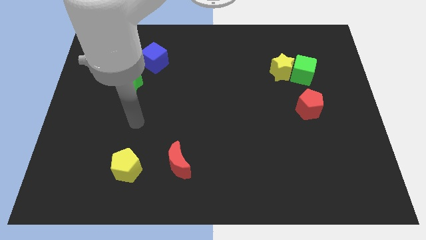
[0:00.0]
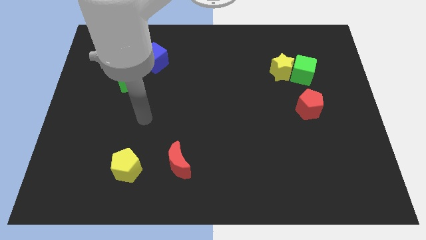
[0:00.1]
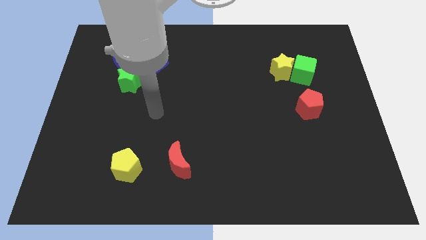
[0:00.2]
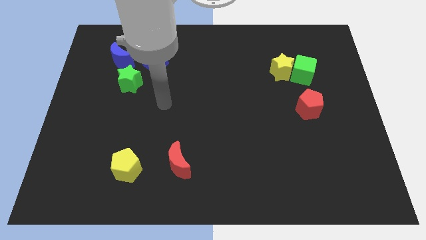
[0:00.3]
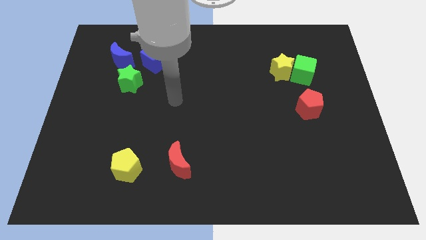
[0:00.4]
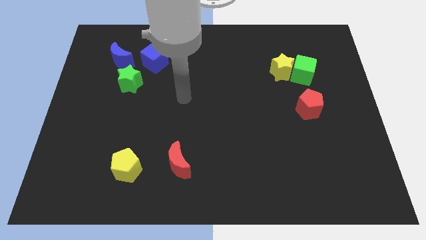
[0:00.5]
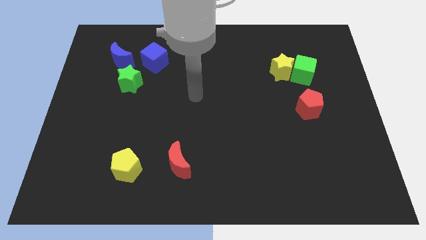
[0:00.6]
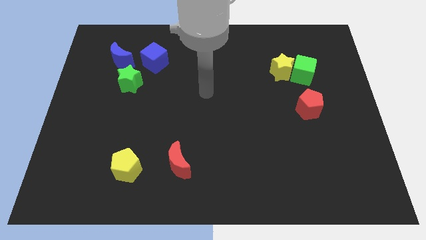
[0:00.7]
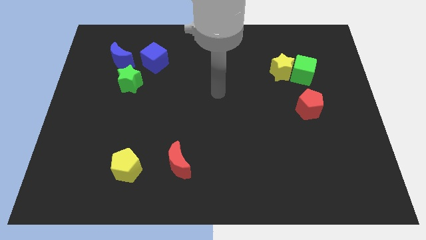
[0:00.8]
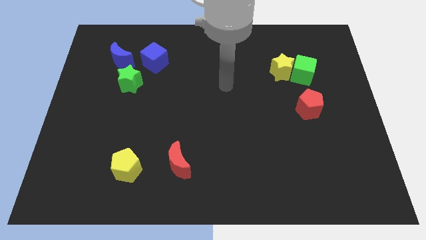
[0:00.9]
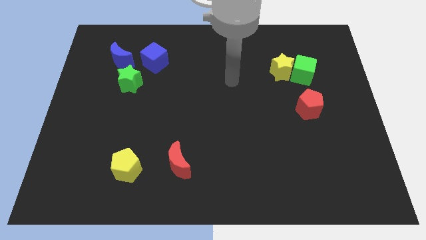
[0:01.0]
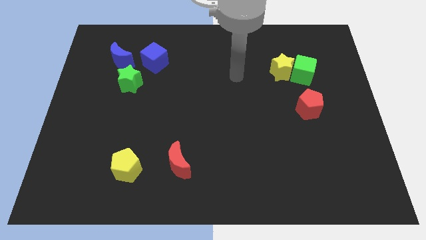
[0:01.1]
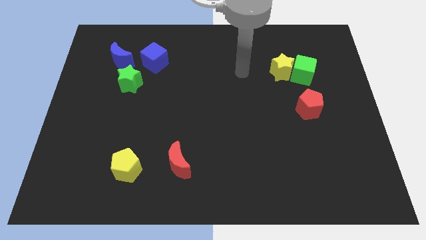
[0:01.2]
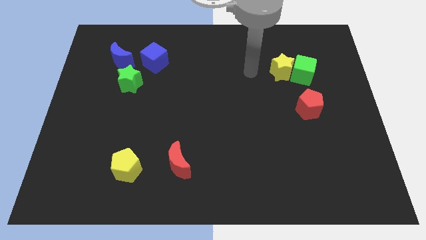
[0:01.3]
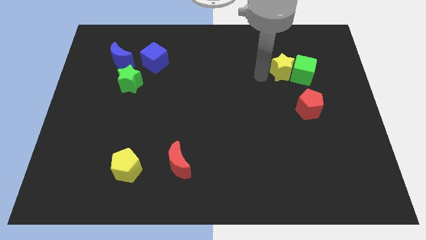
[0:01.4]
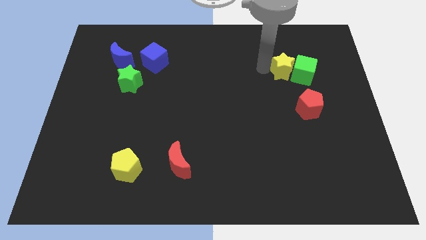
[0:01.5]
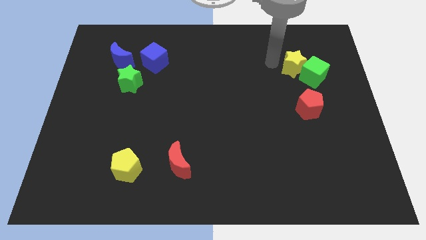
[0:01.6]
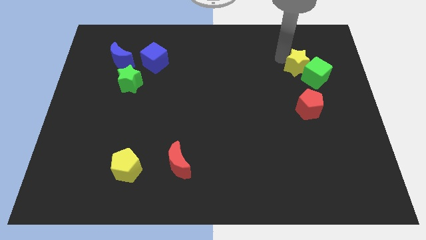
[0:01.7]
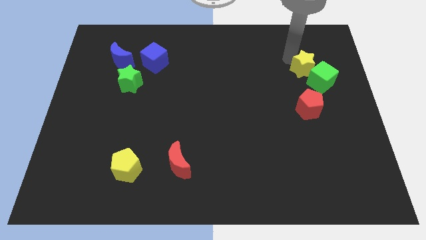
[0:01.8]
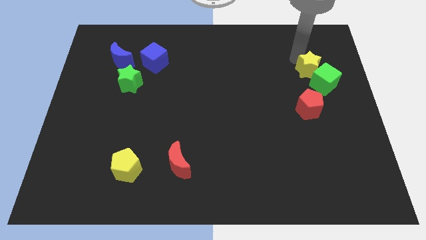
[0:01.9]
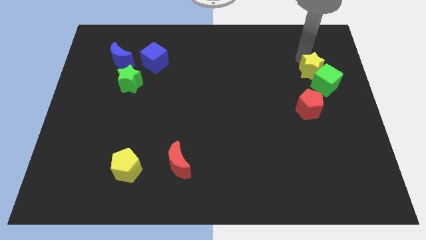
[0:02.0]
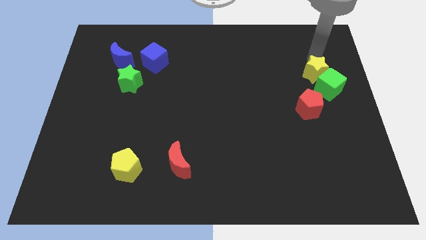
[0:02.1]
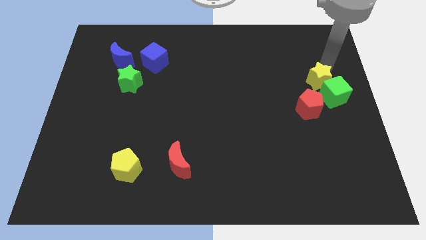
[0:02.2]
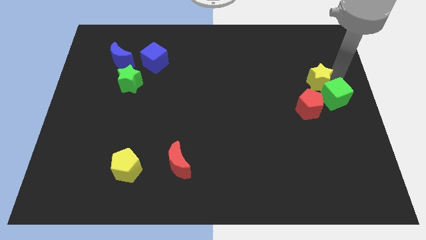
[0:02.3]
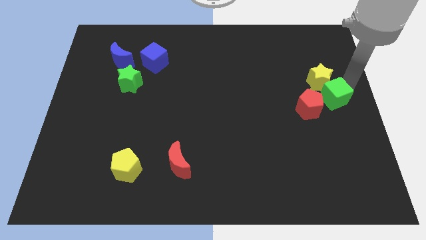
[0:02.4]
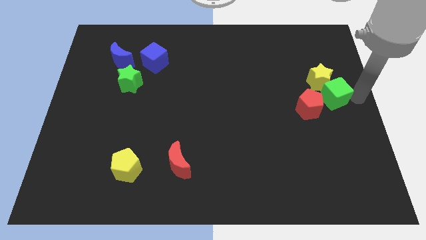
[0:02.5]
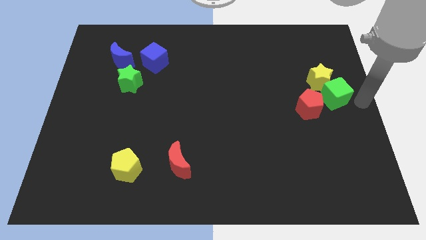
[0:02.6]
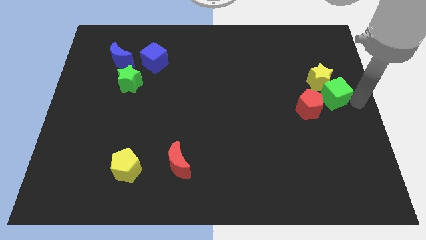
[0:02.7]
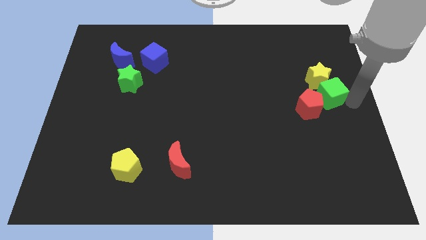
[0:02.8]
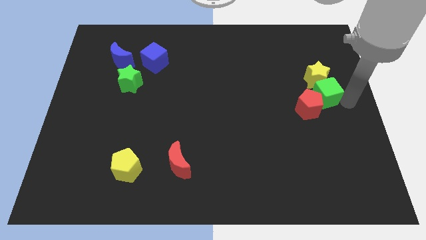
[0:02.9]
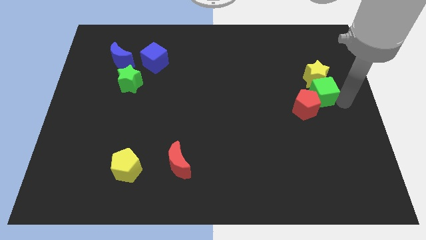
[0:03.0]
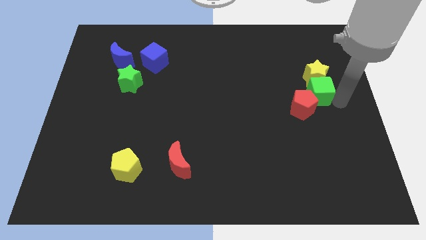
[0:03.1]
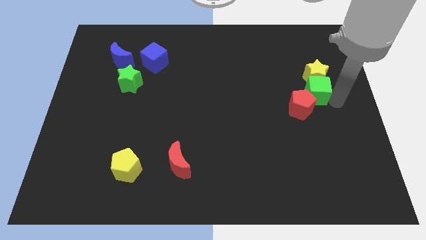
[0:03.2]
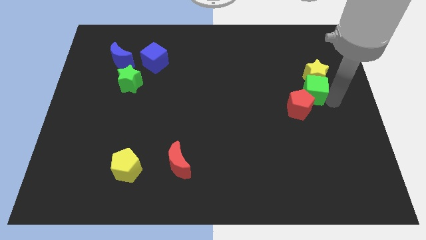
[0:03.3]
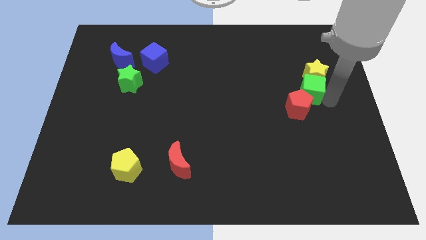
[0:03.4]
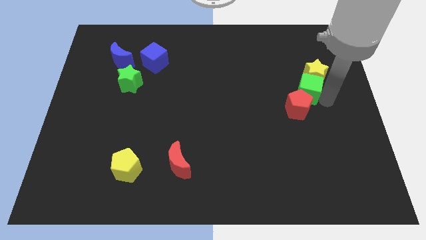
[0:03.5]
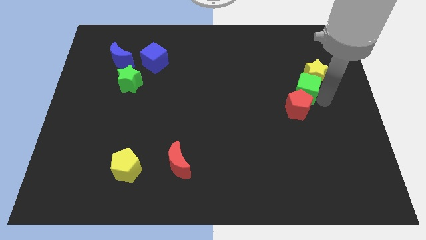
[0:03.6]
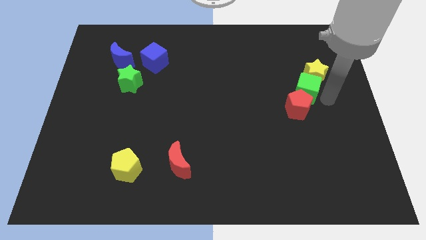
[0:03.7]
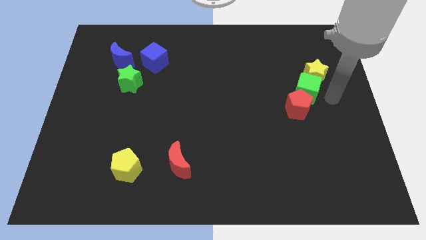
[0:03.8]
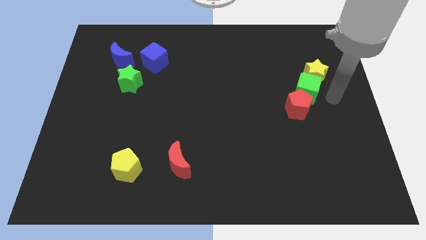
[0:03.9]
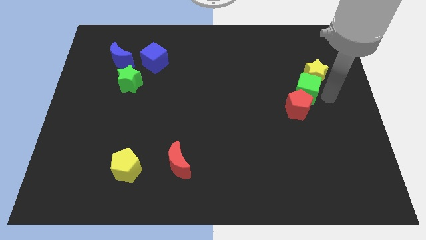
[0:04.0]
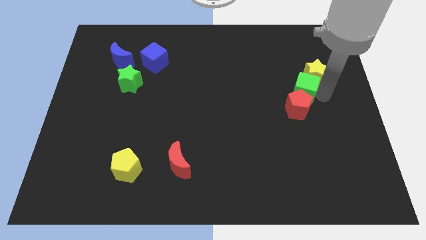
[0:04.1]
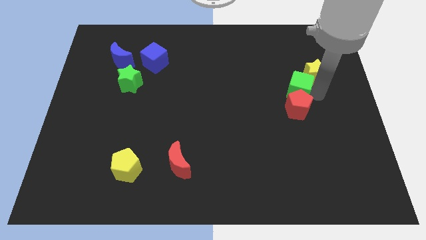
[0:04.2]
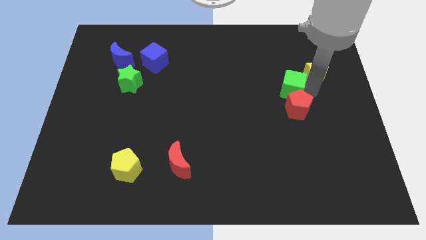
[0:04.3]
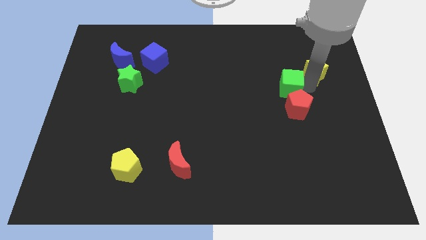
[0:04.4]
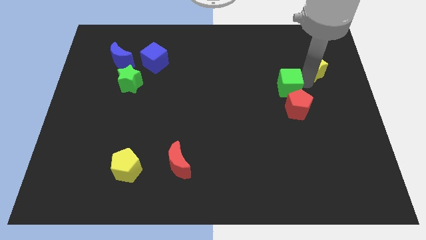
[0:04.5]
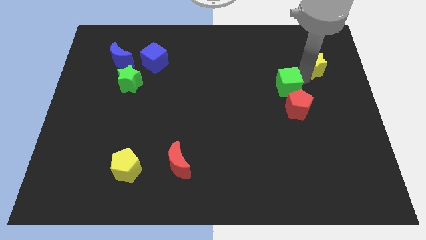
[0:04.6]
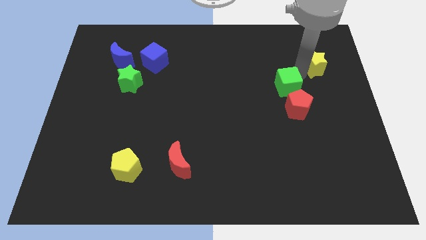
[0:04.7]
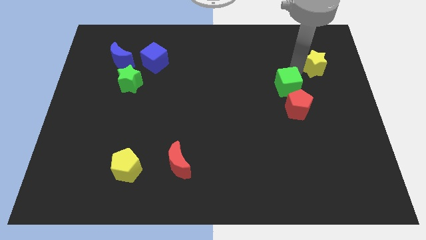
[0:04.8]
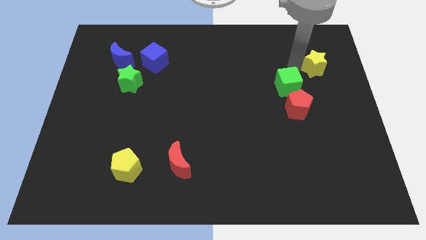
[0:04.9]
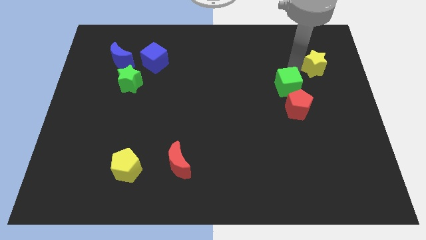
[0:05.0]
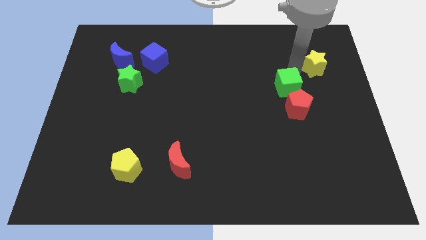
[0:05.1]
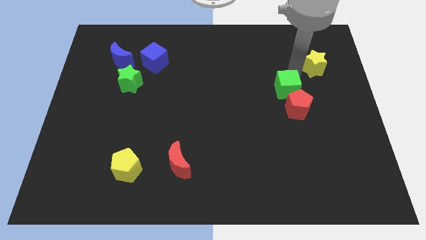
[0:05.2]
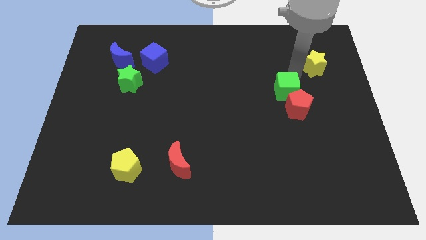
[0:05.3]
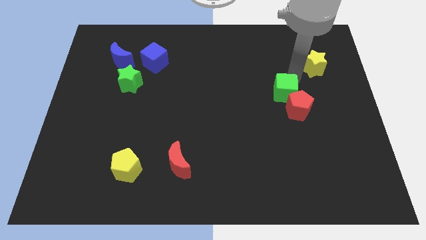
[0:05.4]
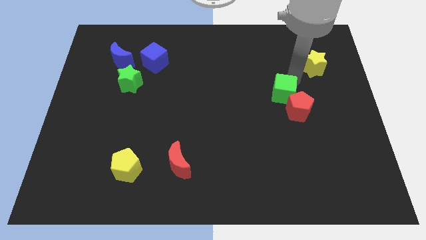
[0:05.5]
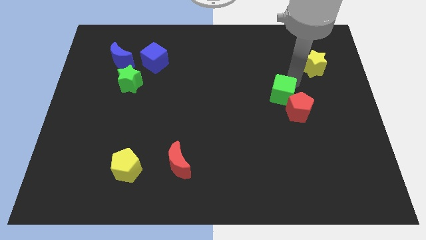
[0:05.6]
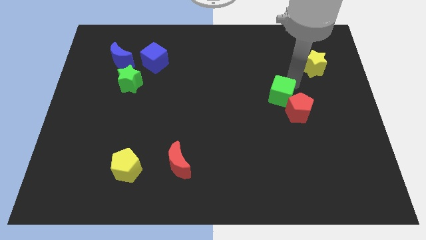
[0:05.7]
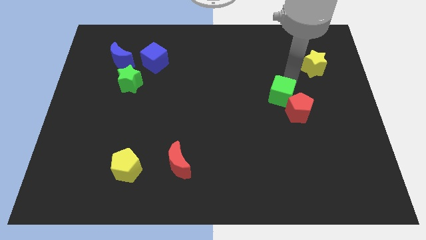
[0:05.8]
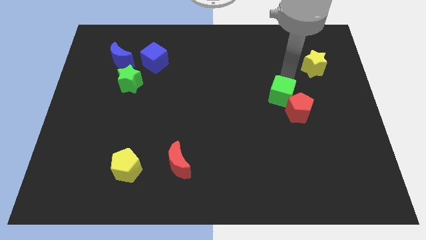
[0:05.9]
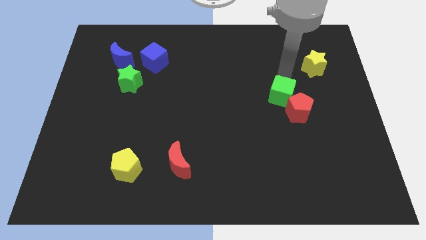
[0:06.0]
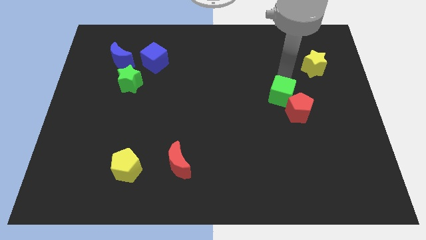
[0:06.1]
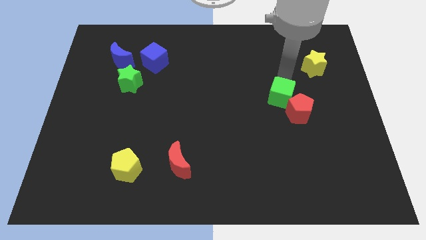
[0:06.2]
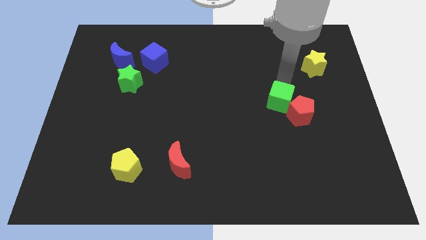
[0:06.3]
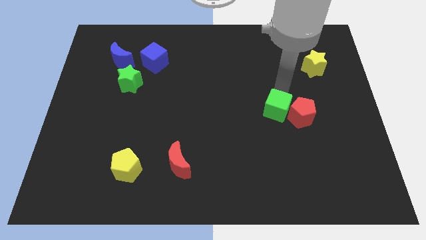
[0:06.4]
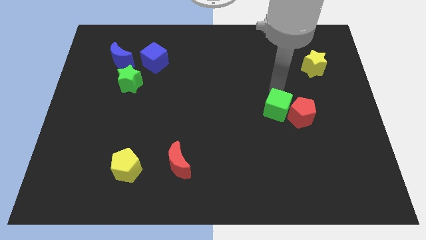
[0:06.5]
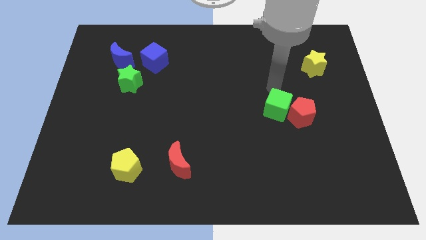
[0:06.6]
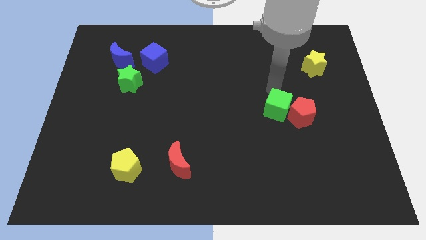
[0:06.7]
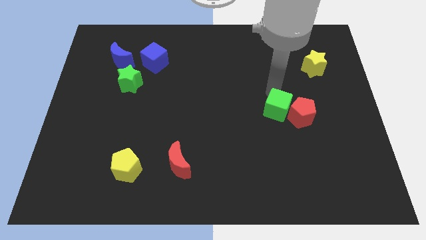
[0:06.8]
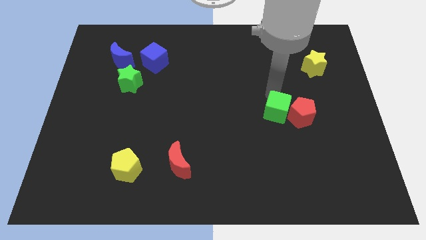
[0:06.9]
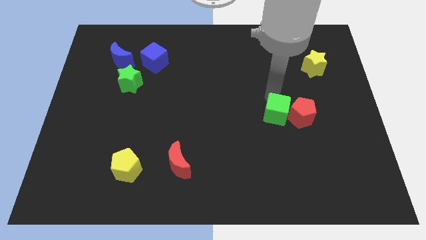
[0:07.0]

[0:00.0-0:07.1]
push the green cube diagonally down and to the left of the red pentagon

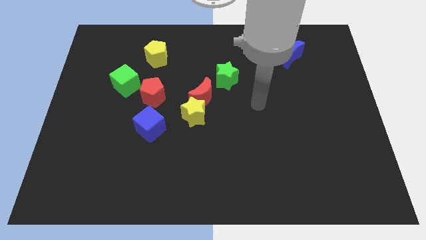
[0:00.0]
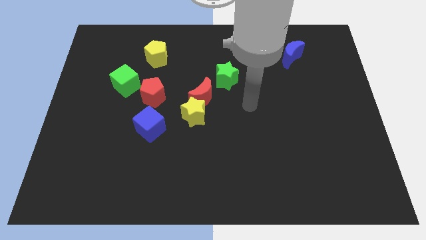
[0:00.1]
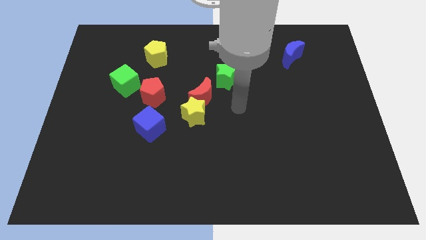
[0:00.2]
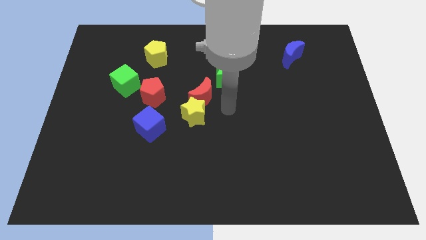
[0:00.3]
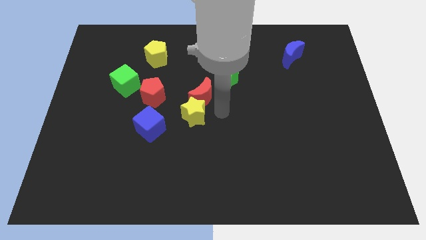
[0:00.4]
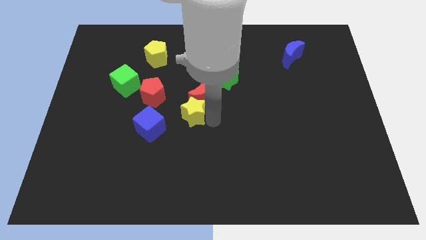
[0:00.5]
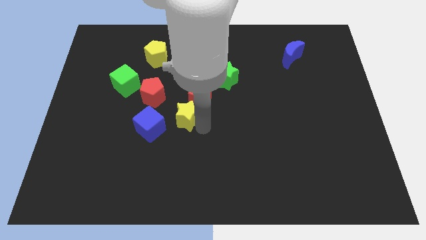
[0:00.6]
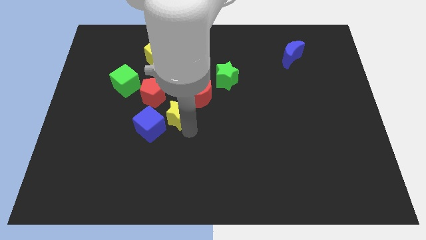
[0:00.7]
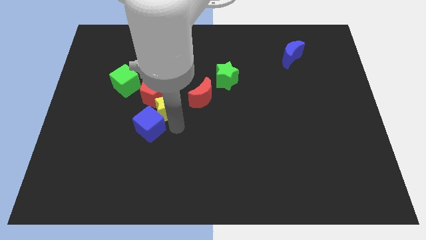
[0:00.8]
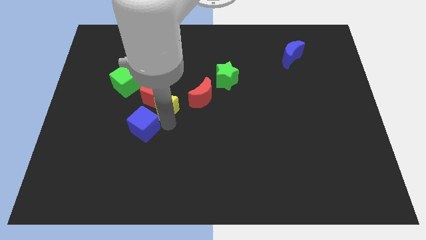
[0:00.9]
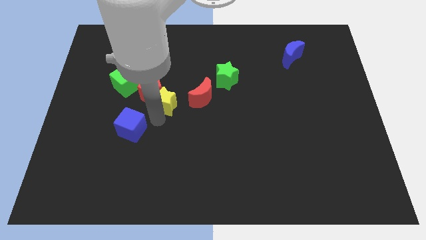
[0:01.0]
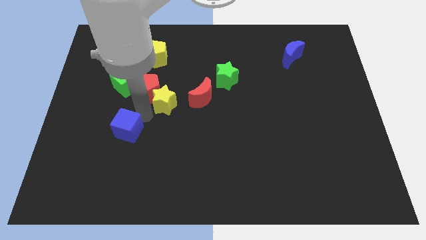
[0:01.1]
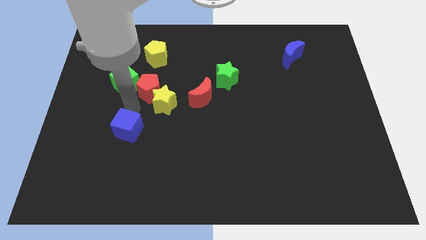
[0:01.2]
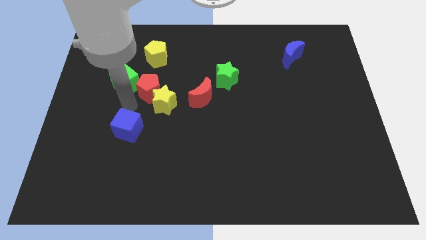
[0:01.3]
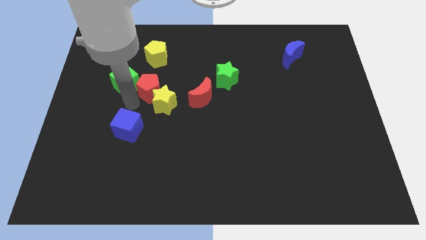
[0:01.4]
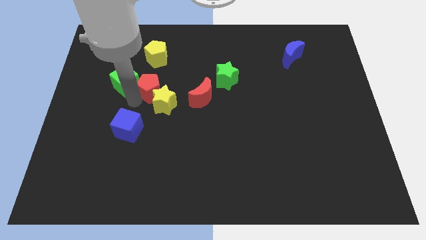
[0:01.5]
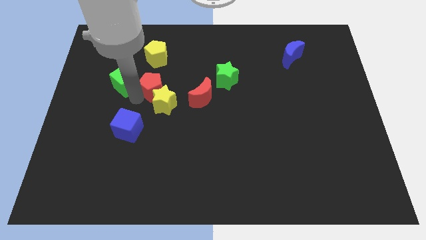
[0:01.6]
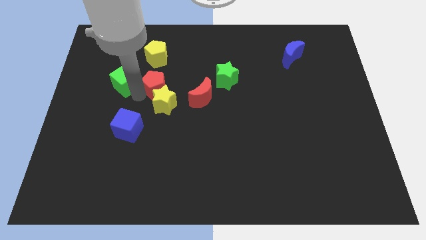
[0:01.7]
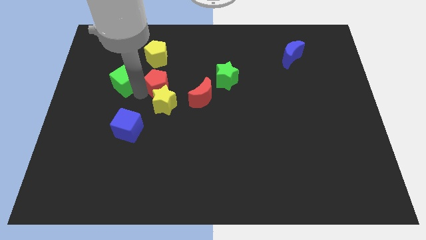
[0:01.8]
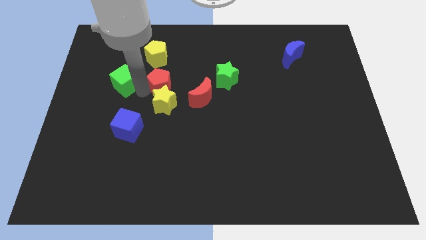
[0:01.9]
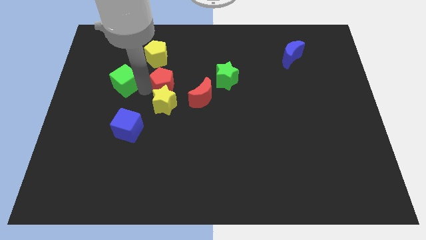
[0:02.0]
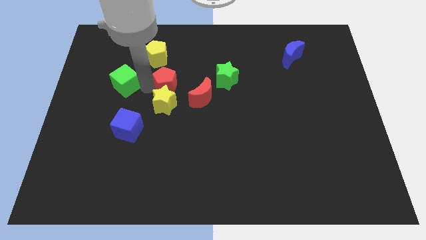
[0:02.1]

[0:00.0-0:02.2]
slide the red pentagon diagonally down and to the right of the yellow pentagon
